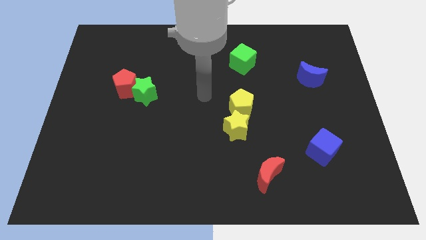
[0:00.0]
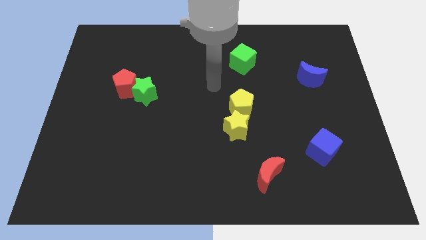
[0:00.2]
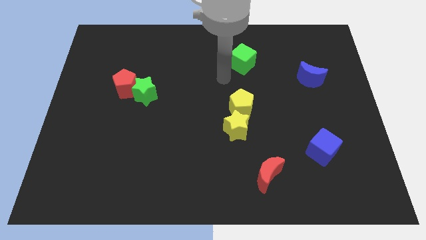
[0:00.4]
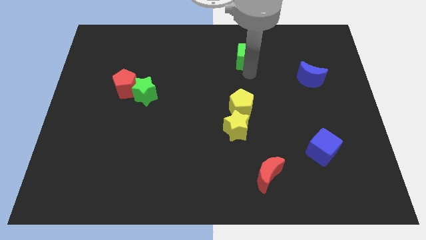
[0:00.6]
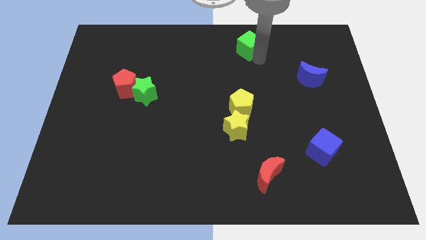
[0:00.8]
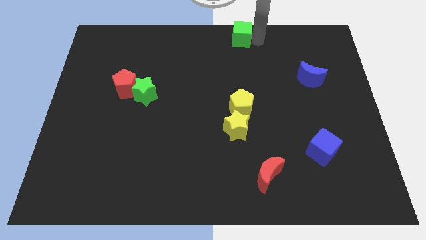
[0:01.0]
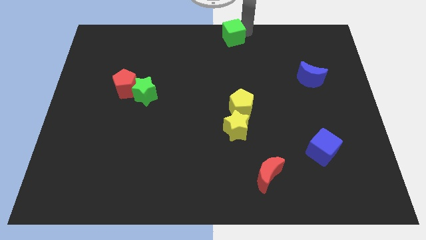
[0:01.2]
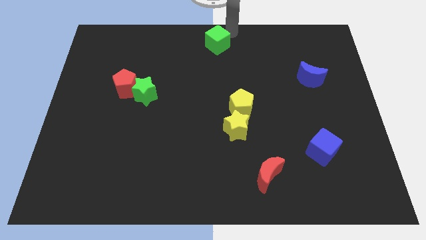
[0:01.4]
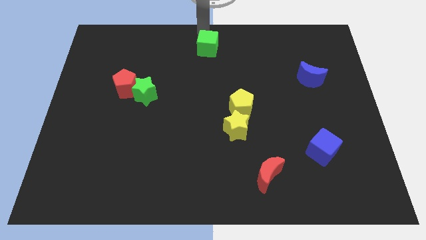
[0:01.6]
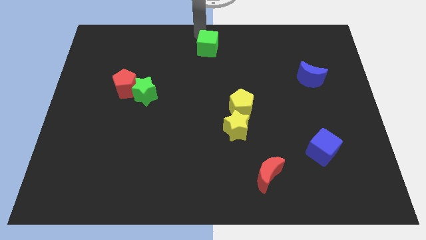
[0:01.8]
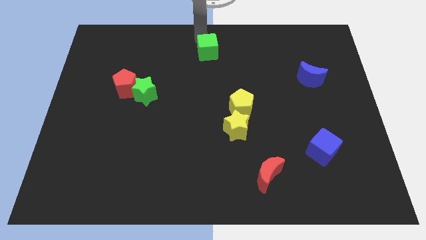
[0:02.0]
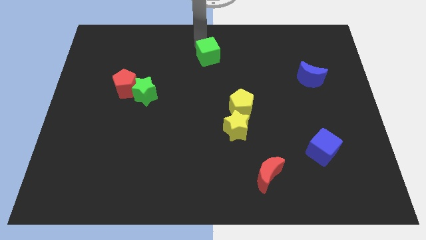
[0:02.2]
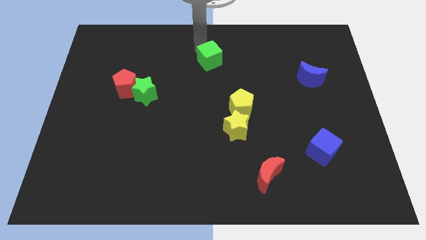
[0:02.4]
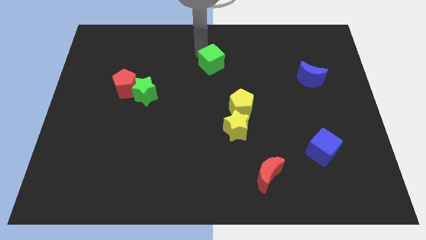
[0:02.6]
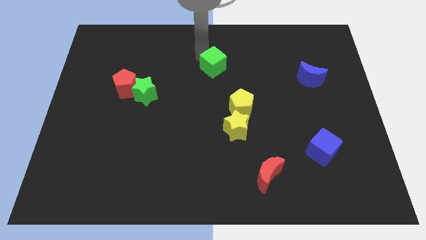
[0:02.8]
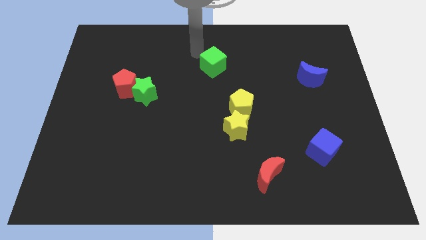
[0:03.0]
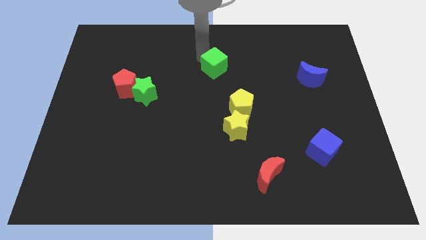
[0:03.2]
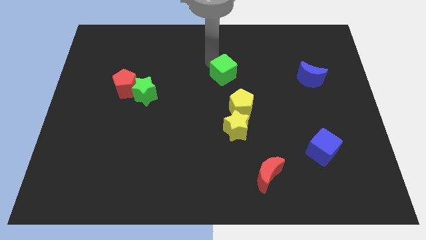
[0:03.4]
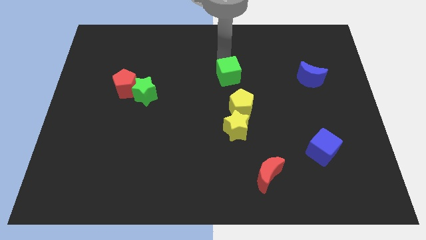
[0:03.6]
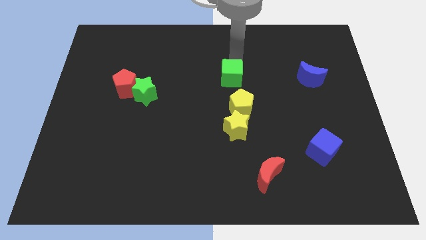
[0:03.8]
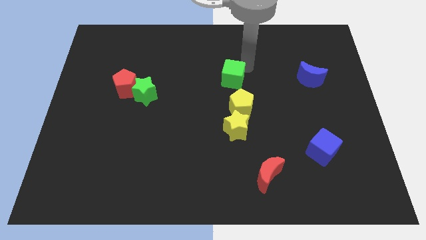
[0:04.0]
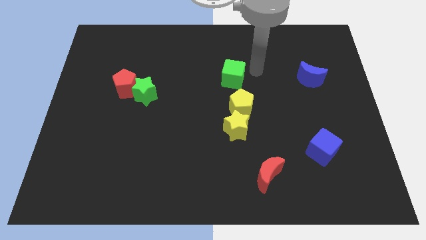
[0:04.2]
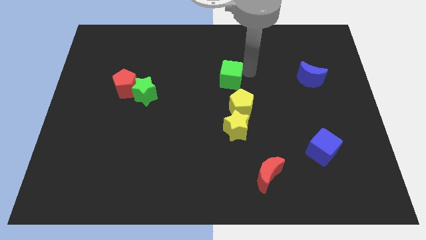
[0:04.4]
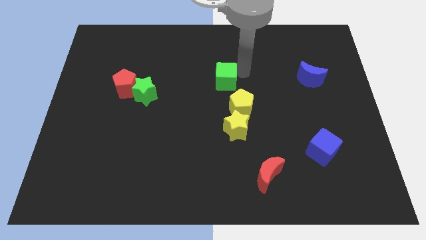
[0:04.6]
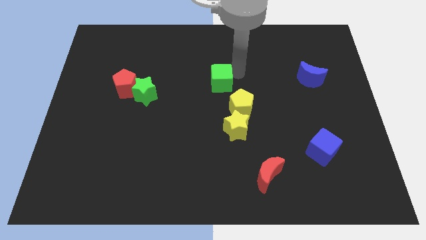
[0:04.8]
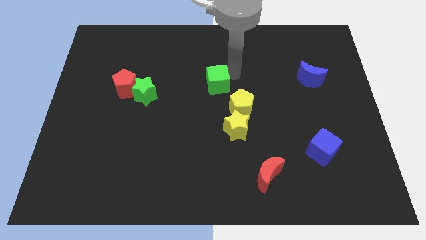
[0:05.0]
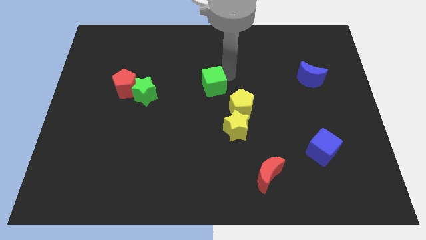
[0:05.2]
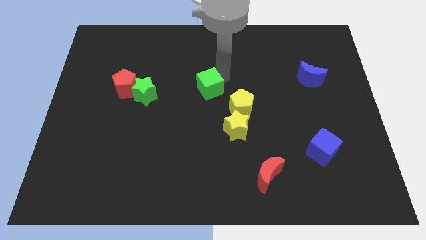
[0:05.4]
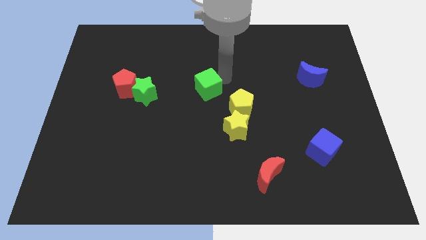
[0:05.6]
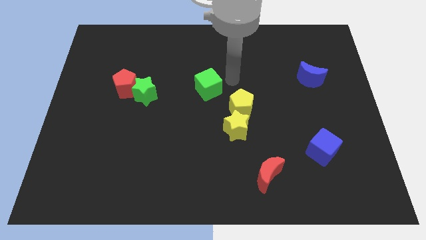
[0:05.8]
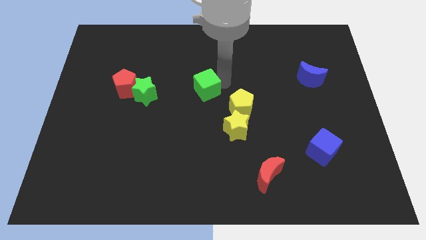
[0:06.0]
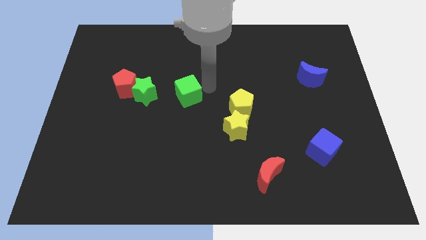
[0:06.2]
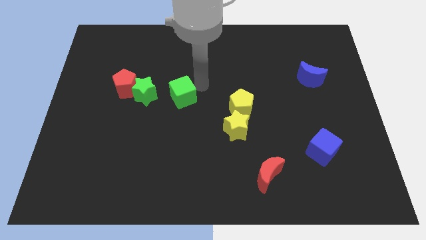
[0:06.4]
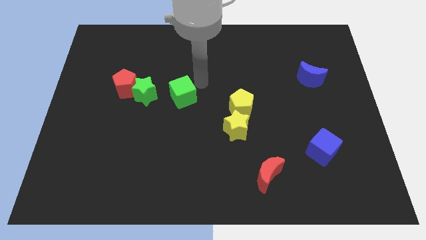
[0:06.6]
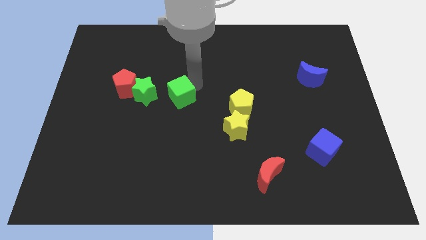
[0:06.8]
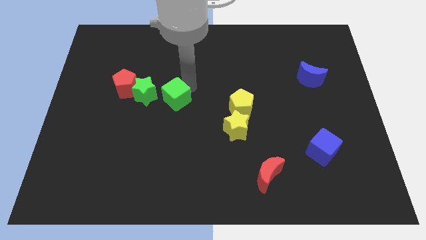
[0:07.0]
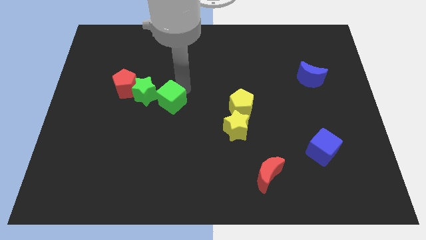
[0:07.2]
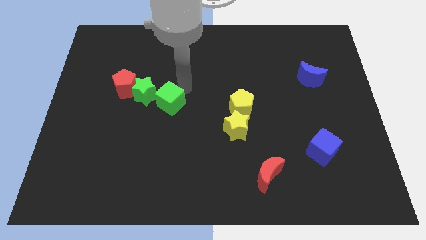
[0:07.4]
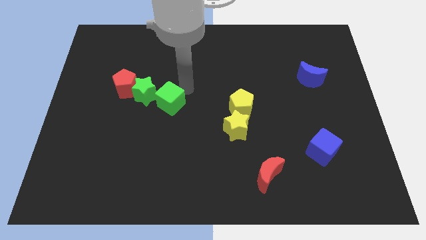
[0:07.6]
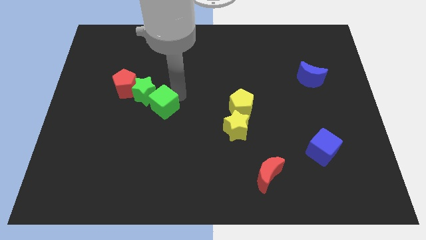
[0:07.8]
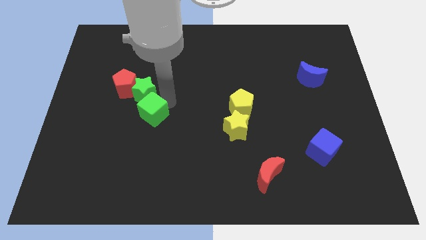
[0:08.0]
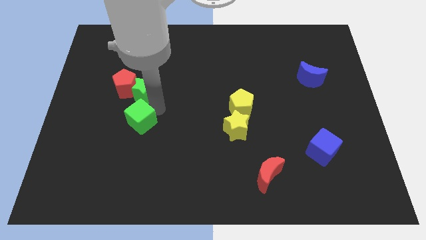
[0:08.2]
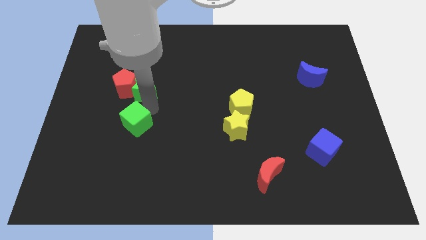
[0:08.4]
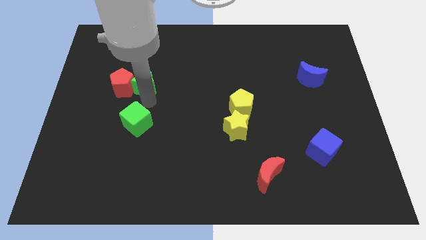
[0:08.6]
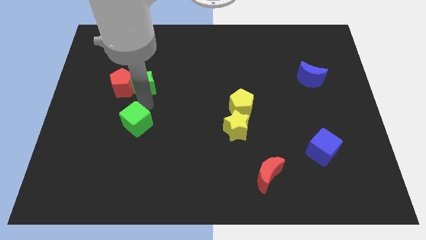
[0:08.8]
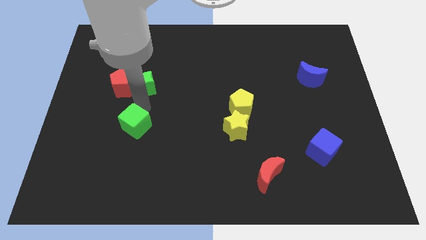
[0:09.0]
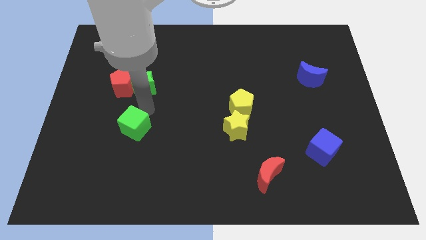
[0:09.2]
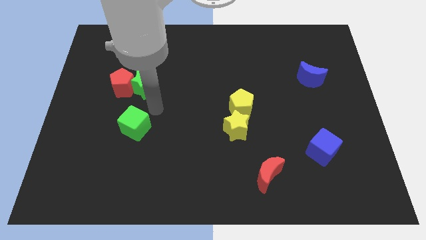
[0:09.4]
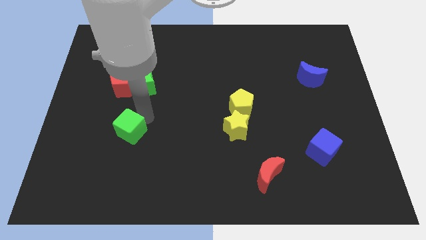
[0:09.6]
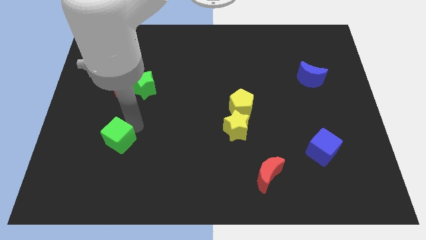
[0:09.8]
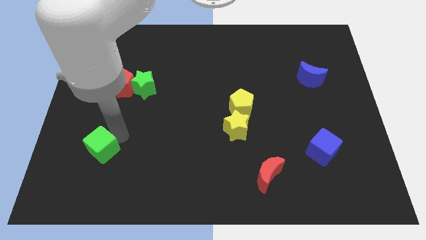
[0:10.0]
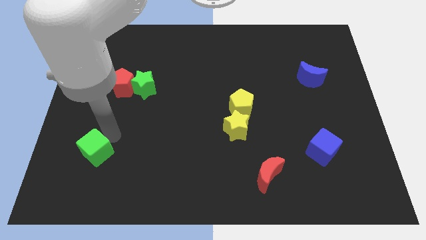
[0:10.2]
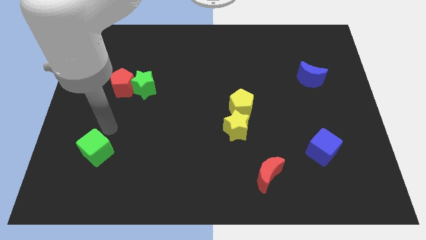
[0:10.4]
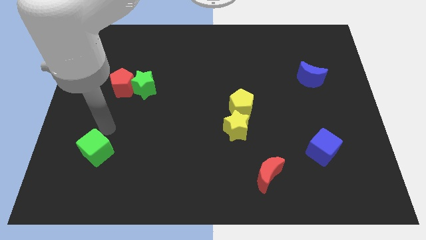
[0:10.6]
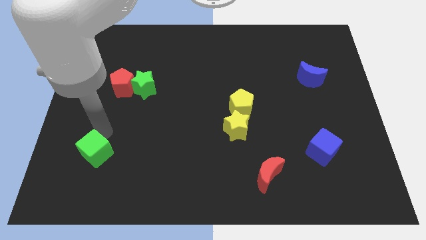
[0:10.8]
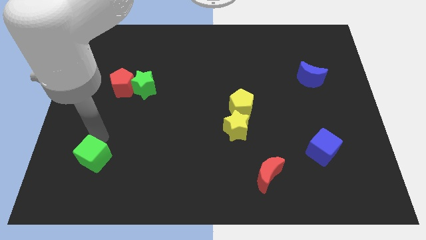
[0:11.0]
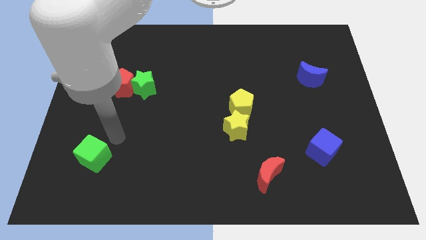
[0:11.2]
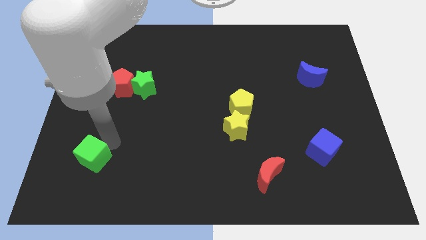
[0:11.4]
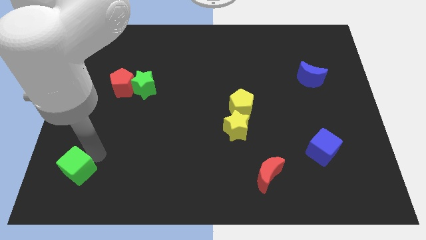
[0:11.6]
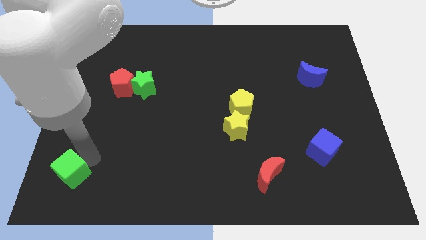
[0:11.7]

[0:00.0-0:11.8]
push the green cube to the lower left corner

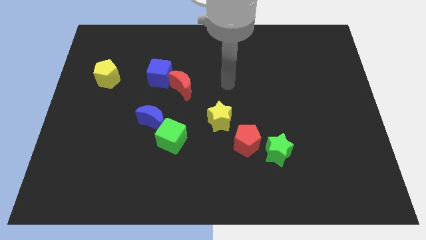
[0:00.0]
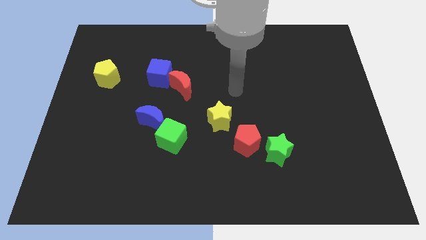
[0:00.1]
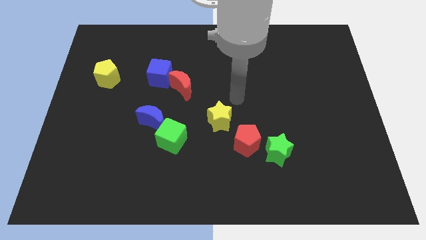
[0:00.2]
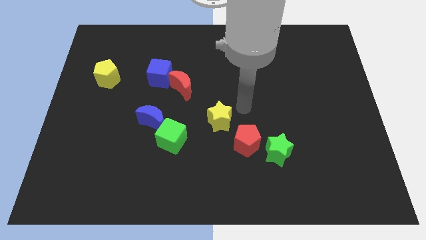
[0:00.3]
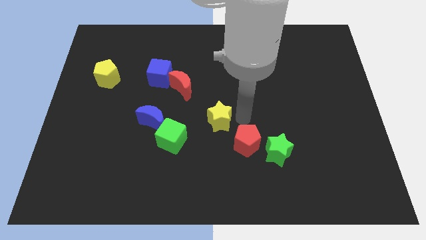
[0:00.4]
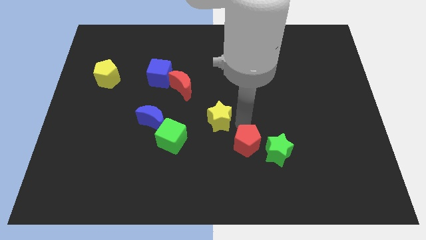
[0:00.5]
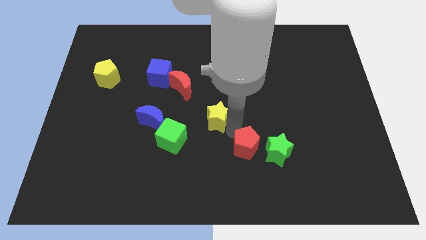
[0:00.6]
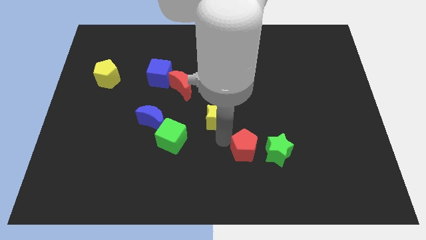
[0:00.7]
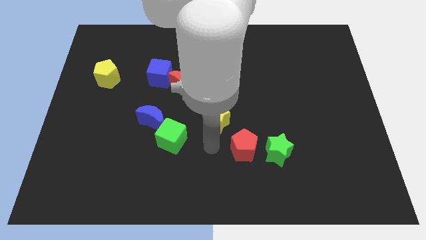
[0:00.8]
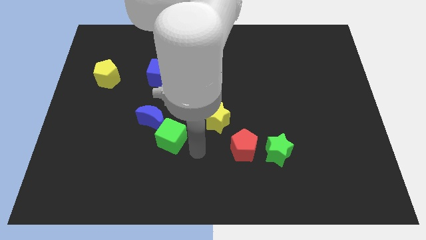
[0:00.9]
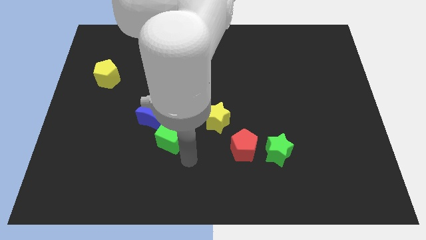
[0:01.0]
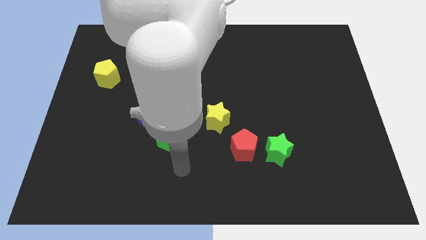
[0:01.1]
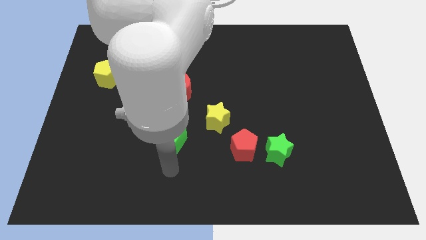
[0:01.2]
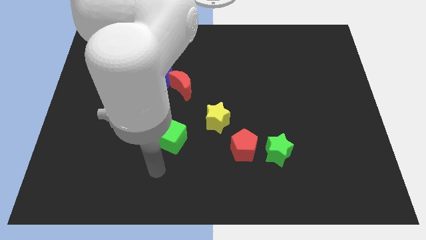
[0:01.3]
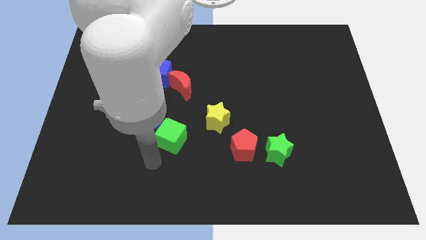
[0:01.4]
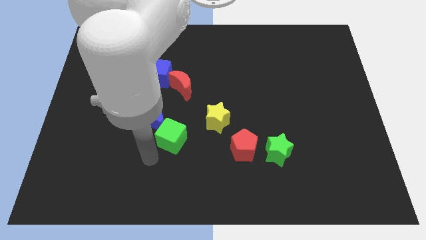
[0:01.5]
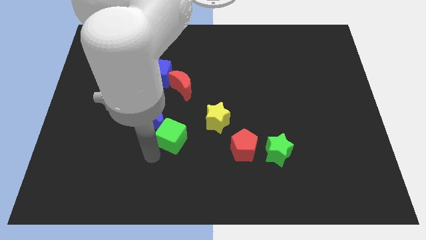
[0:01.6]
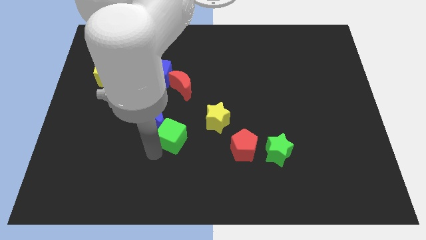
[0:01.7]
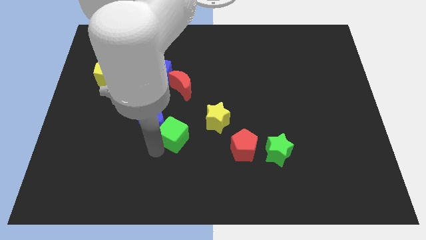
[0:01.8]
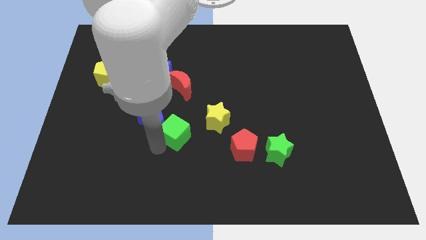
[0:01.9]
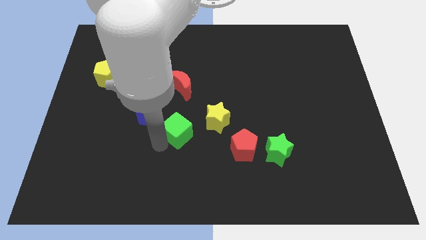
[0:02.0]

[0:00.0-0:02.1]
slide the green cube to the middle of the board
